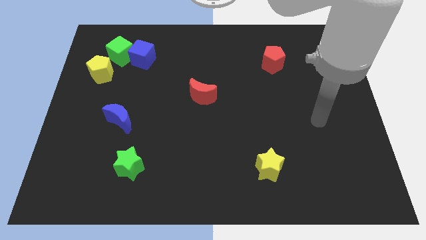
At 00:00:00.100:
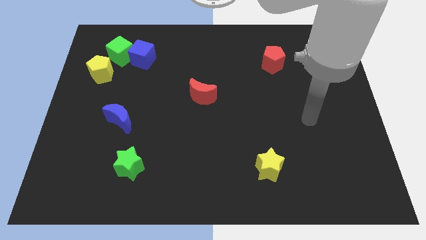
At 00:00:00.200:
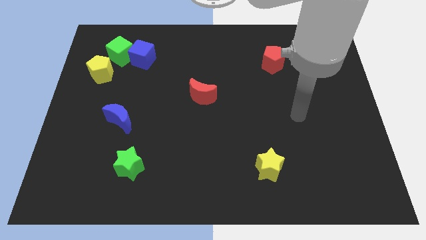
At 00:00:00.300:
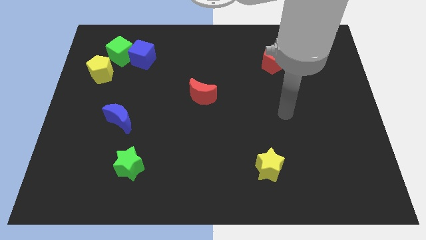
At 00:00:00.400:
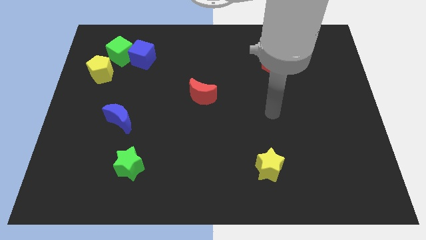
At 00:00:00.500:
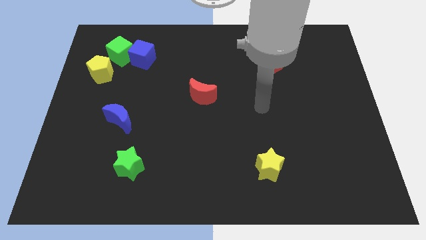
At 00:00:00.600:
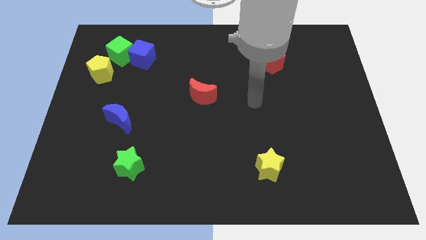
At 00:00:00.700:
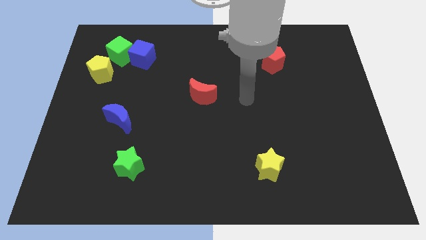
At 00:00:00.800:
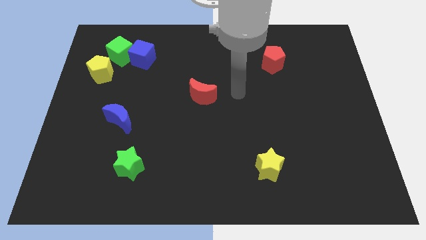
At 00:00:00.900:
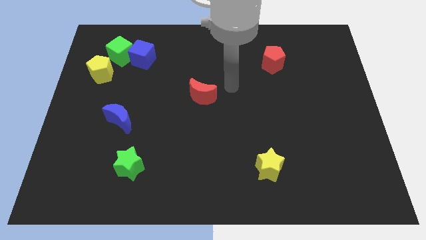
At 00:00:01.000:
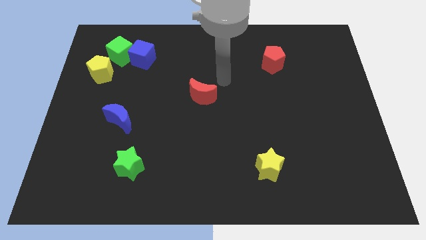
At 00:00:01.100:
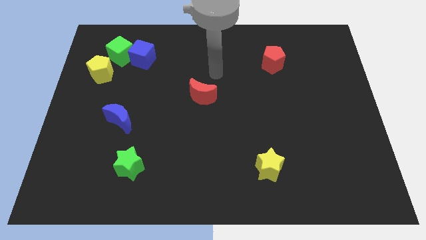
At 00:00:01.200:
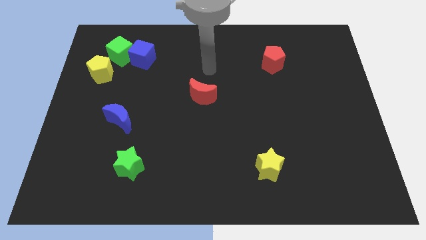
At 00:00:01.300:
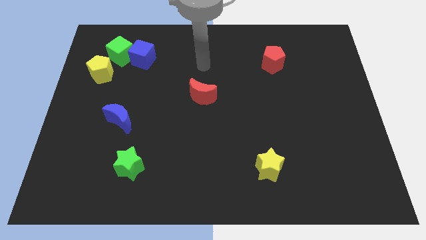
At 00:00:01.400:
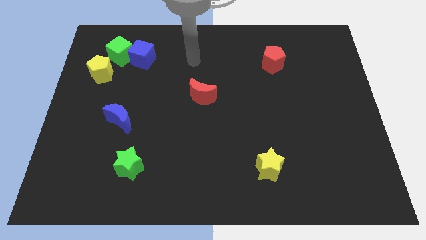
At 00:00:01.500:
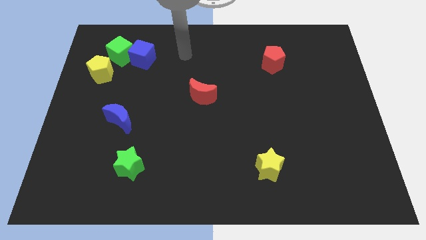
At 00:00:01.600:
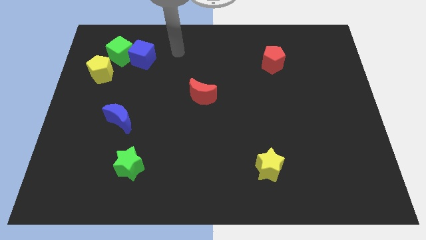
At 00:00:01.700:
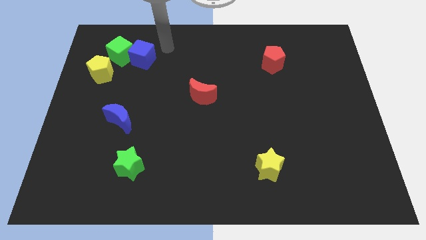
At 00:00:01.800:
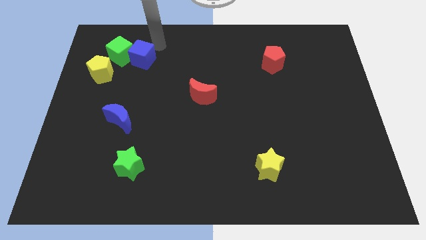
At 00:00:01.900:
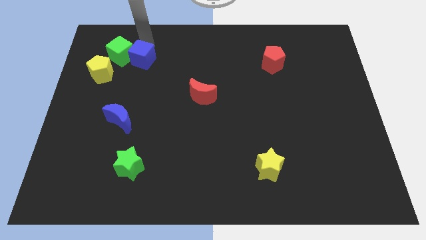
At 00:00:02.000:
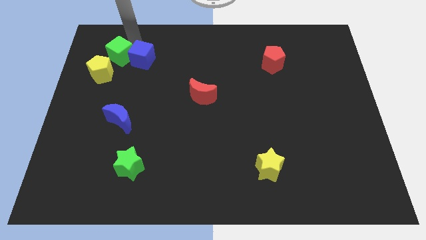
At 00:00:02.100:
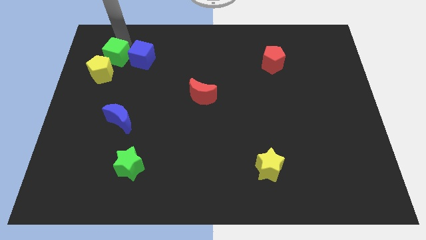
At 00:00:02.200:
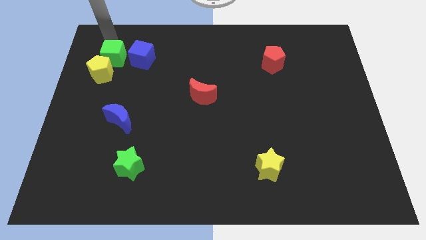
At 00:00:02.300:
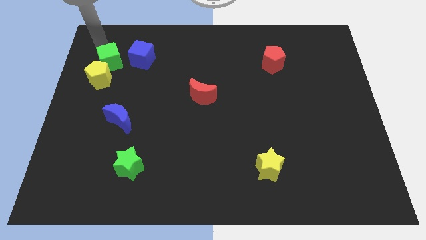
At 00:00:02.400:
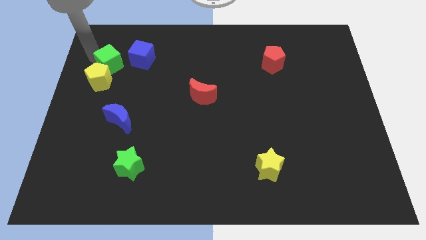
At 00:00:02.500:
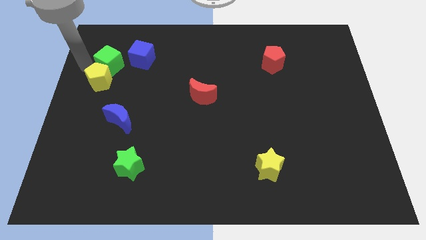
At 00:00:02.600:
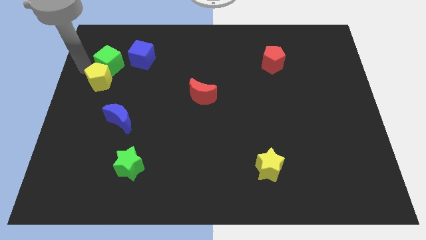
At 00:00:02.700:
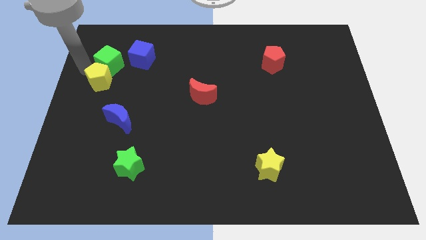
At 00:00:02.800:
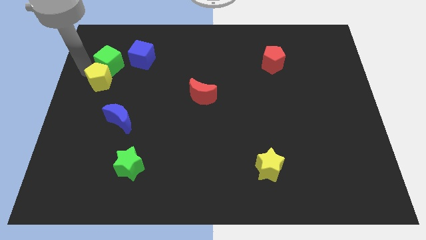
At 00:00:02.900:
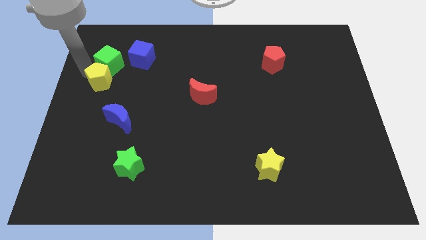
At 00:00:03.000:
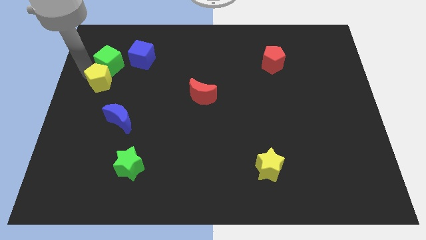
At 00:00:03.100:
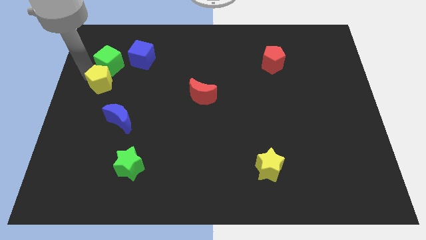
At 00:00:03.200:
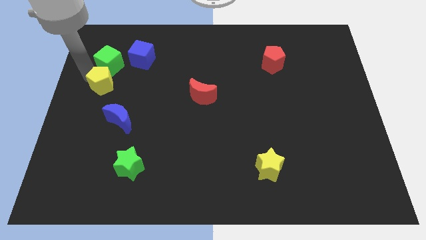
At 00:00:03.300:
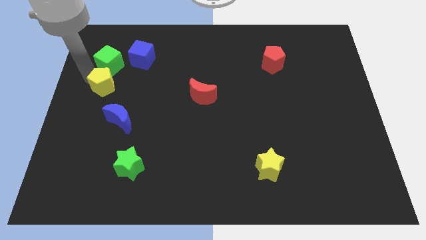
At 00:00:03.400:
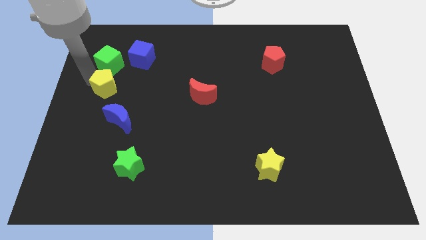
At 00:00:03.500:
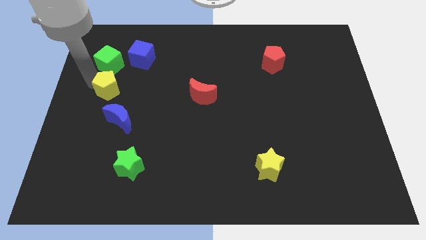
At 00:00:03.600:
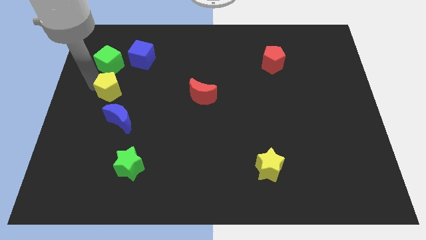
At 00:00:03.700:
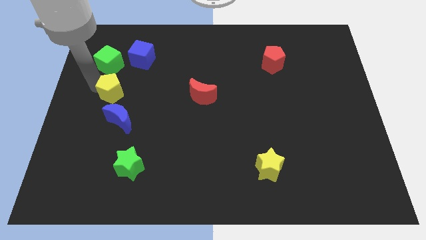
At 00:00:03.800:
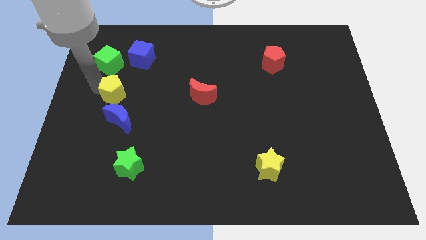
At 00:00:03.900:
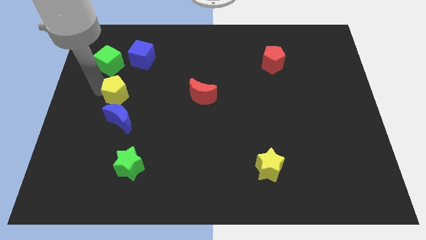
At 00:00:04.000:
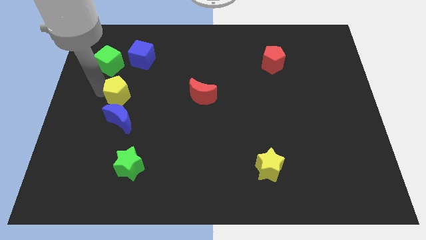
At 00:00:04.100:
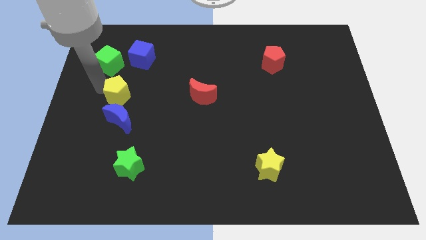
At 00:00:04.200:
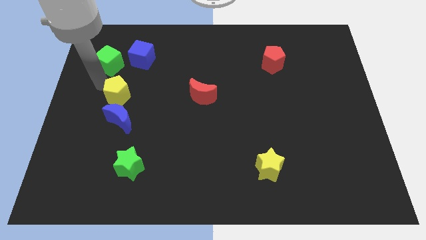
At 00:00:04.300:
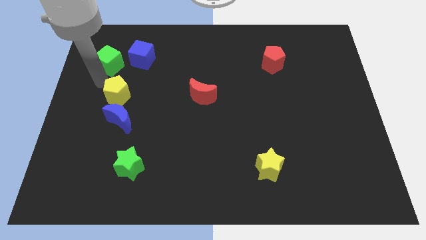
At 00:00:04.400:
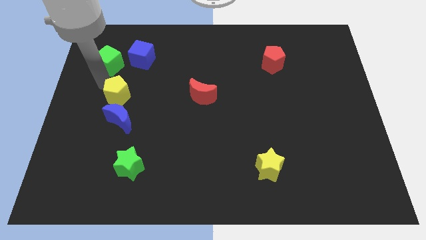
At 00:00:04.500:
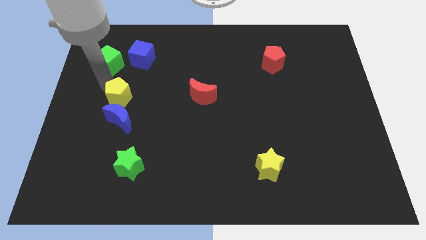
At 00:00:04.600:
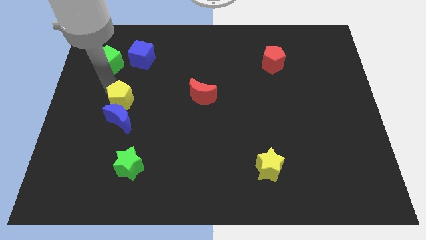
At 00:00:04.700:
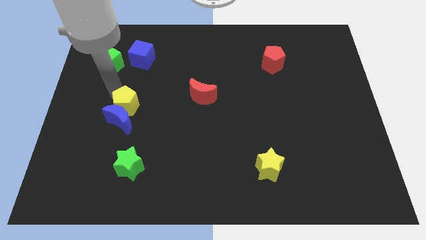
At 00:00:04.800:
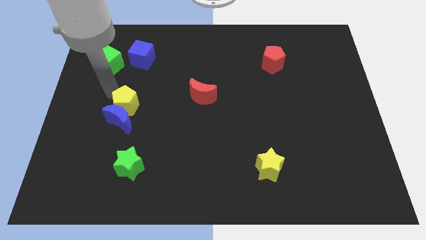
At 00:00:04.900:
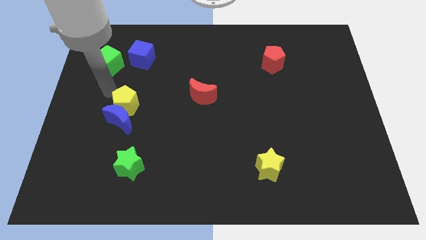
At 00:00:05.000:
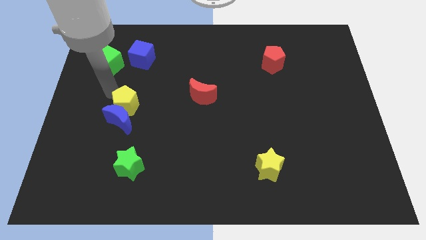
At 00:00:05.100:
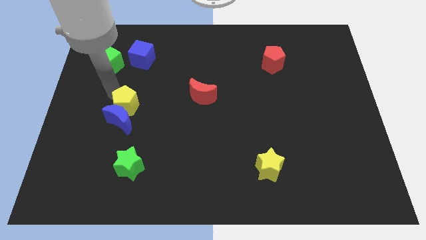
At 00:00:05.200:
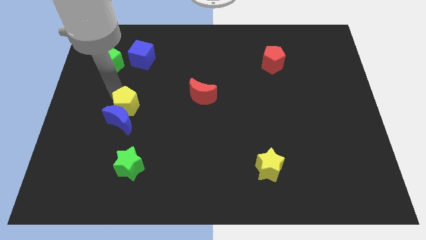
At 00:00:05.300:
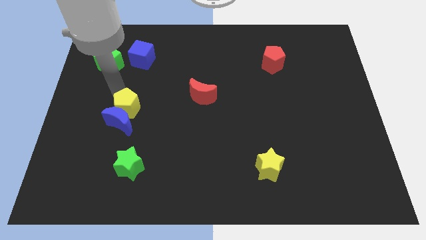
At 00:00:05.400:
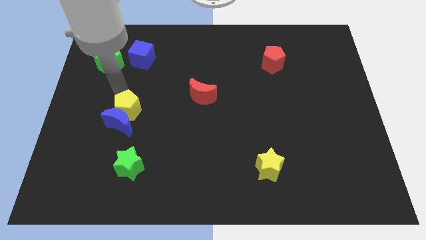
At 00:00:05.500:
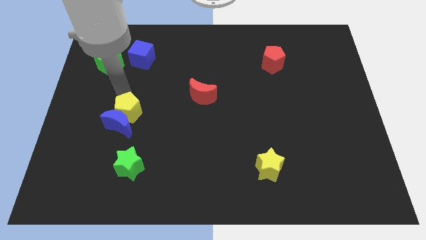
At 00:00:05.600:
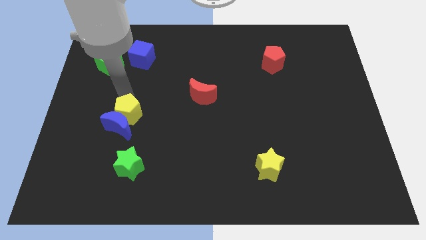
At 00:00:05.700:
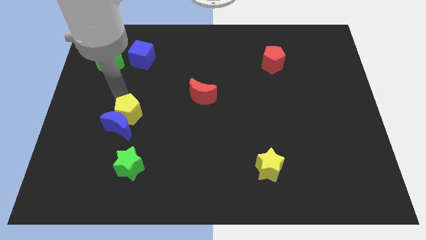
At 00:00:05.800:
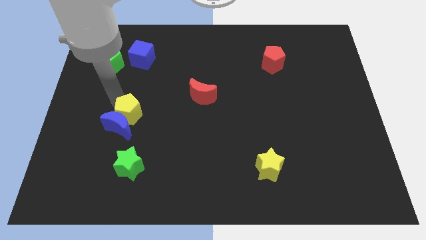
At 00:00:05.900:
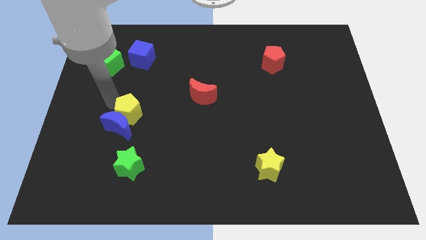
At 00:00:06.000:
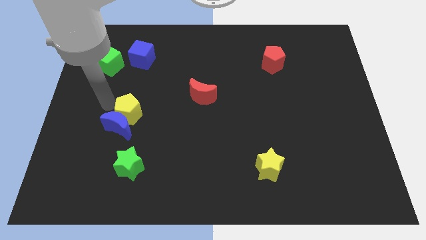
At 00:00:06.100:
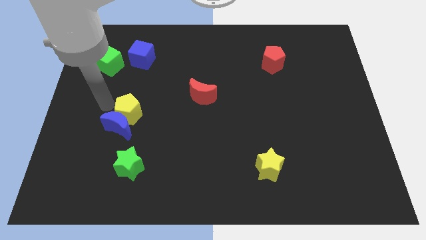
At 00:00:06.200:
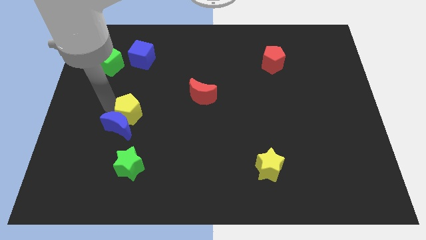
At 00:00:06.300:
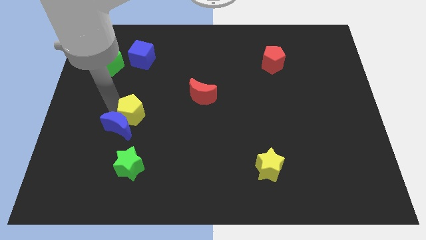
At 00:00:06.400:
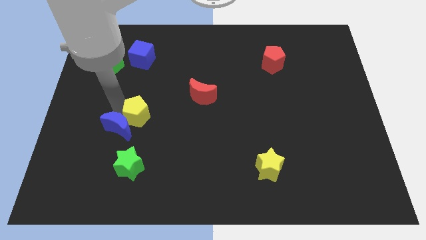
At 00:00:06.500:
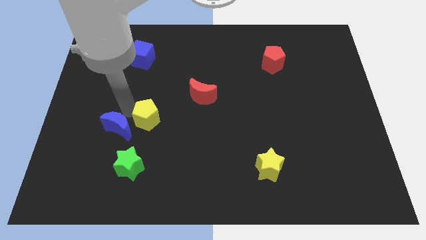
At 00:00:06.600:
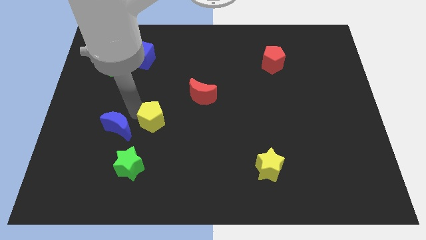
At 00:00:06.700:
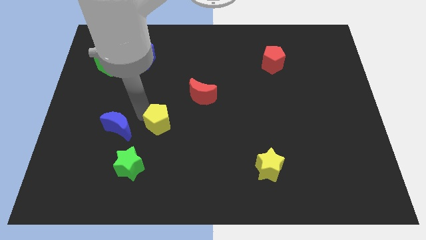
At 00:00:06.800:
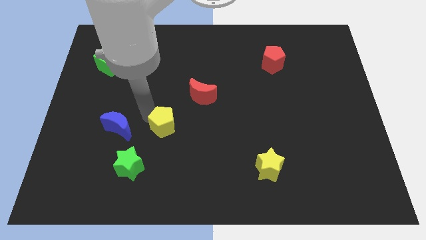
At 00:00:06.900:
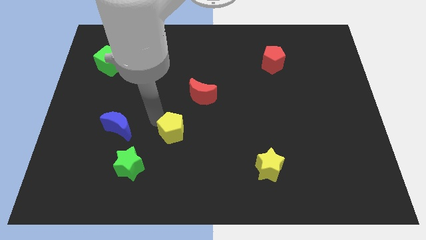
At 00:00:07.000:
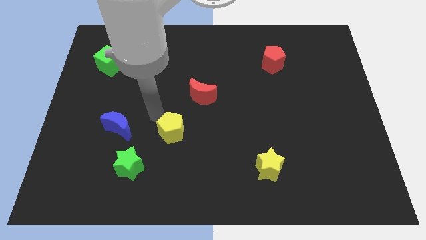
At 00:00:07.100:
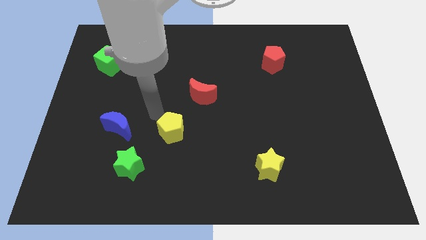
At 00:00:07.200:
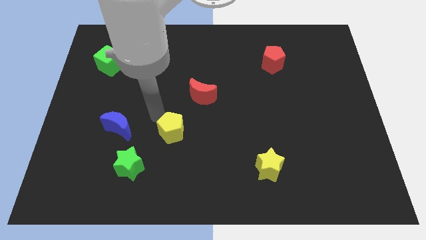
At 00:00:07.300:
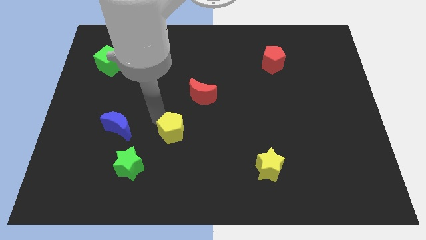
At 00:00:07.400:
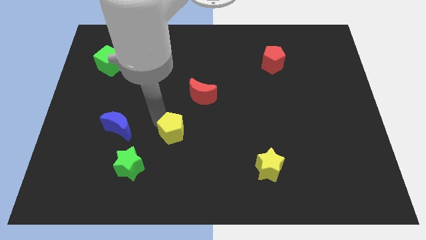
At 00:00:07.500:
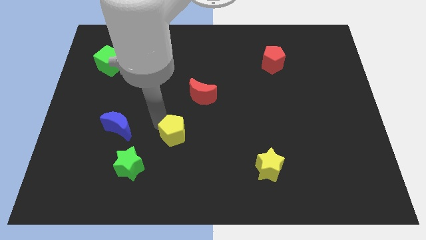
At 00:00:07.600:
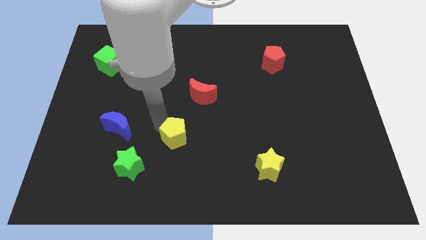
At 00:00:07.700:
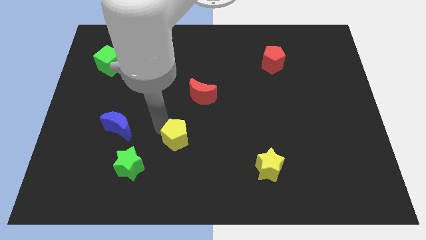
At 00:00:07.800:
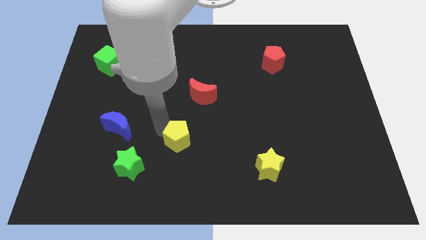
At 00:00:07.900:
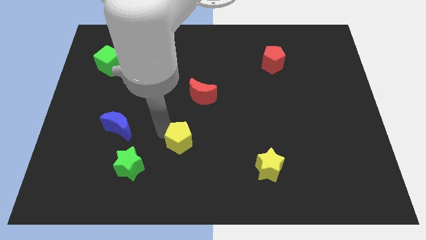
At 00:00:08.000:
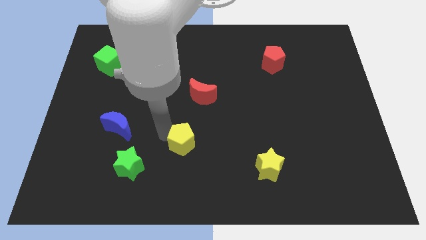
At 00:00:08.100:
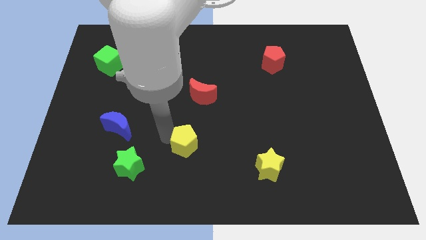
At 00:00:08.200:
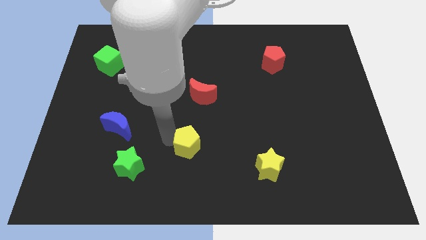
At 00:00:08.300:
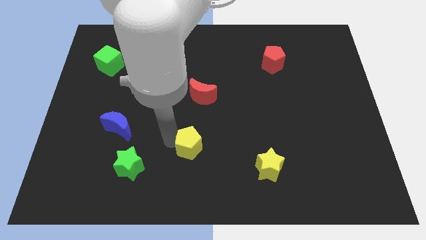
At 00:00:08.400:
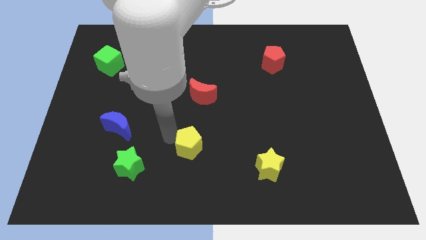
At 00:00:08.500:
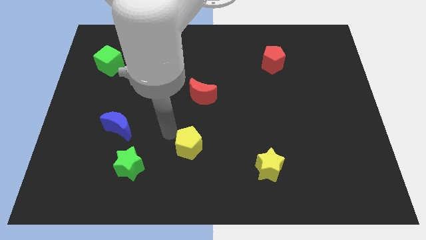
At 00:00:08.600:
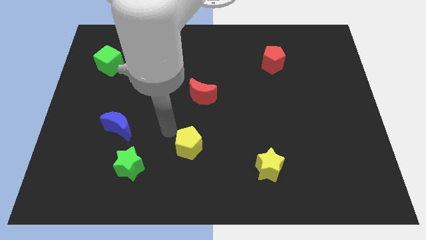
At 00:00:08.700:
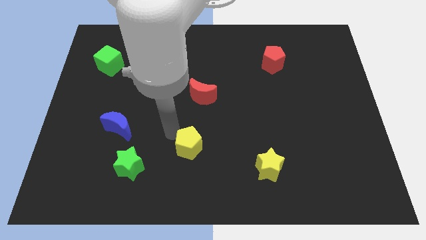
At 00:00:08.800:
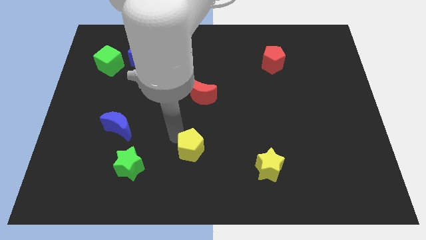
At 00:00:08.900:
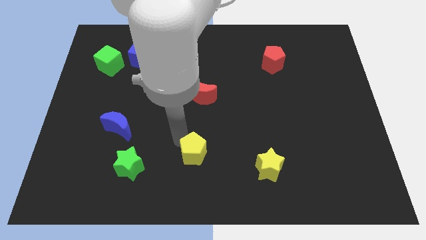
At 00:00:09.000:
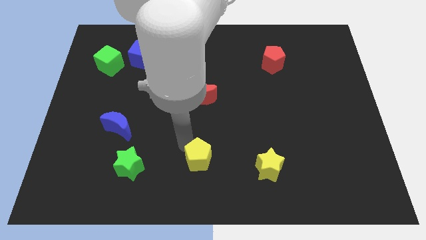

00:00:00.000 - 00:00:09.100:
move the yellow pentagon to the left side of the yellow star
